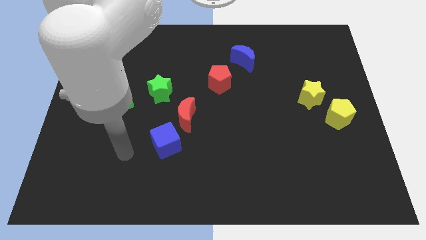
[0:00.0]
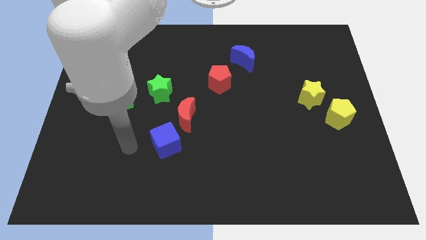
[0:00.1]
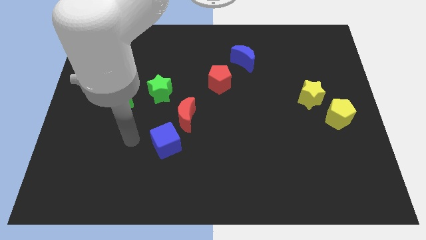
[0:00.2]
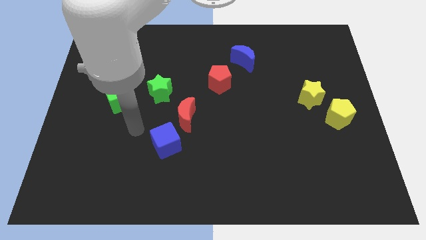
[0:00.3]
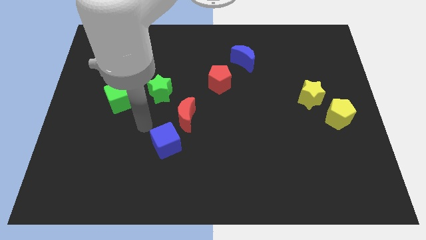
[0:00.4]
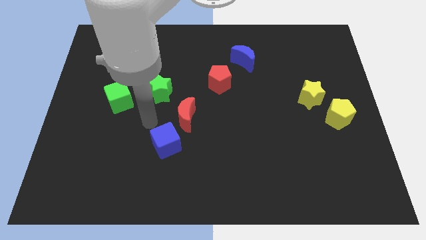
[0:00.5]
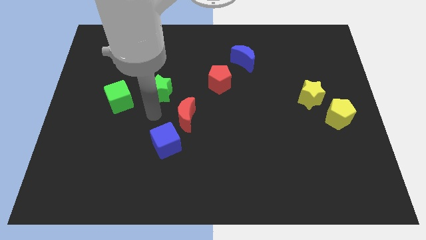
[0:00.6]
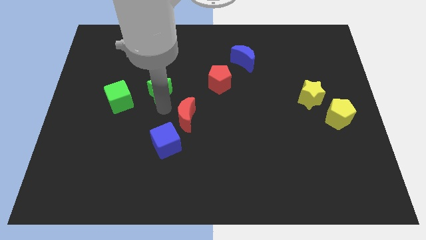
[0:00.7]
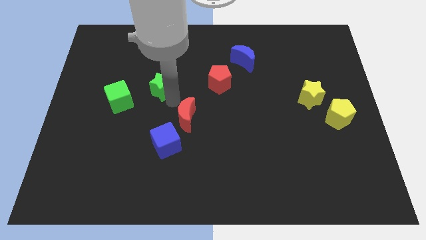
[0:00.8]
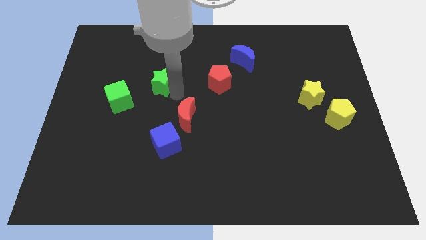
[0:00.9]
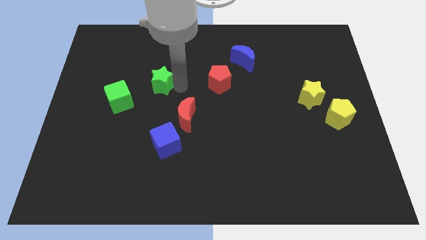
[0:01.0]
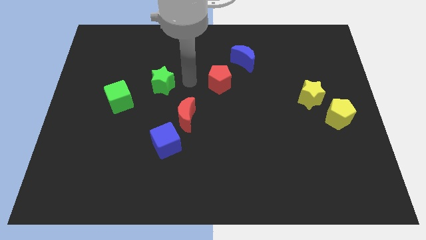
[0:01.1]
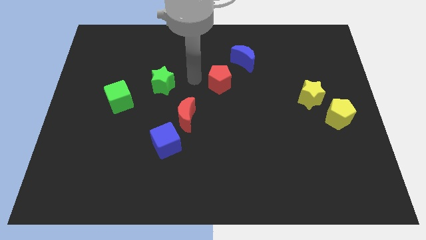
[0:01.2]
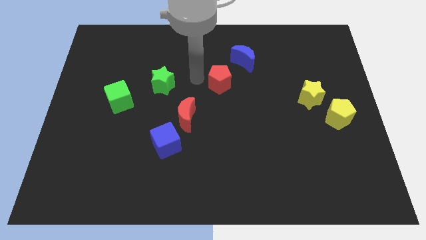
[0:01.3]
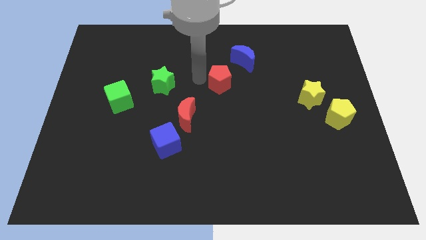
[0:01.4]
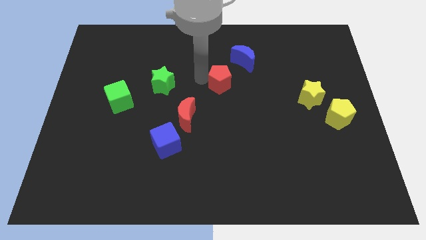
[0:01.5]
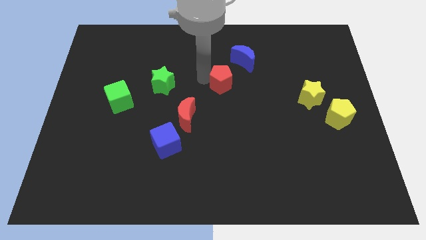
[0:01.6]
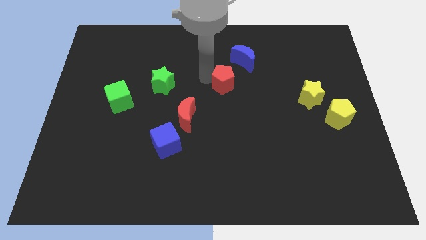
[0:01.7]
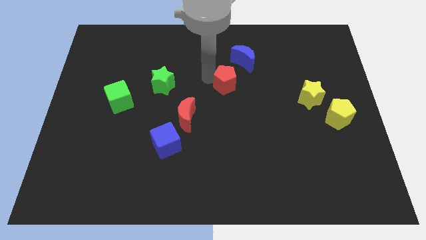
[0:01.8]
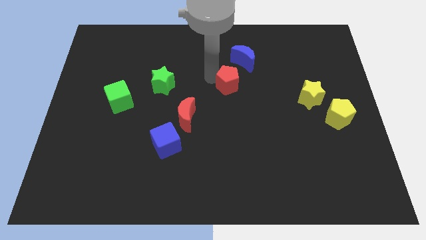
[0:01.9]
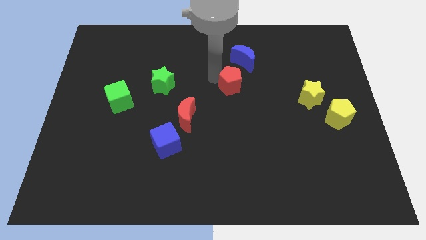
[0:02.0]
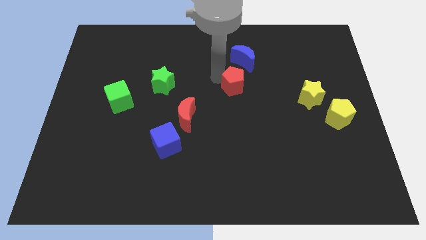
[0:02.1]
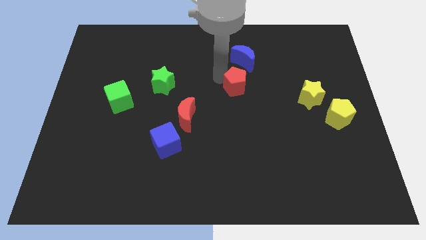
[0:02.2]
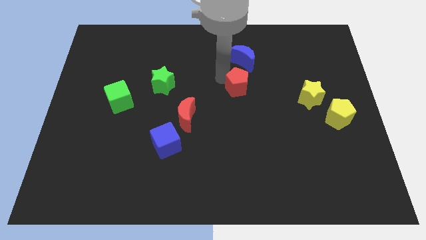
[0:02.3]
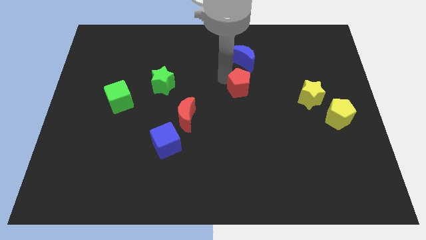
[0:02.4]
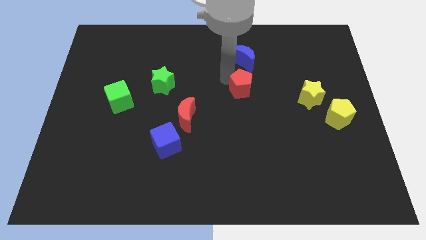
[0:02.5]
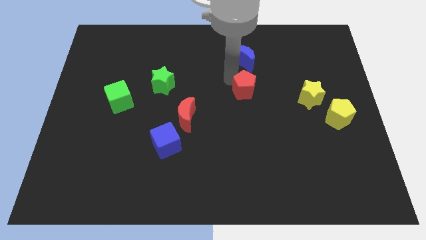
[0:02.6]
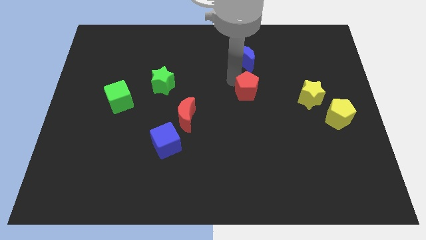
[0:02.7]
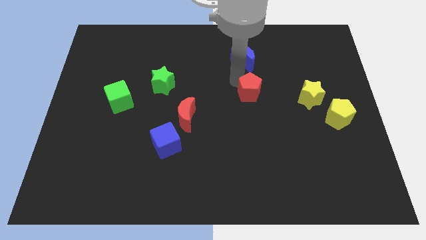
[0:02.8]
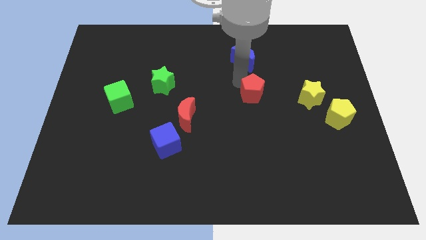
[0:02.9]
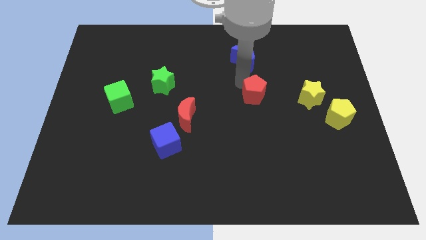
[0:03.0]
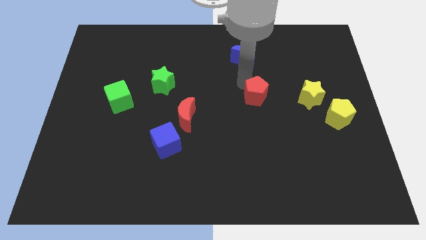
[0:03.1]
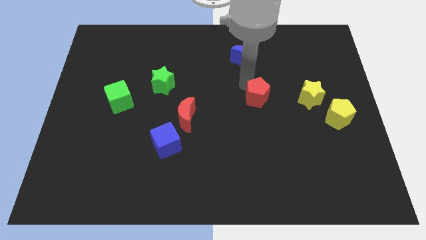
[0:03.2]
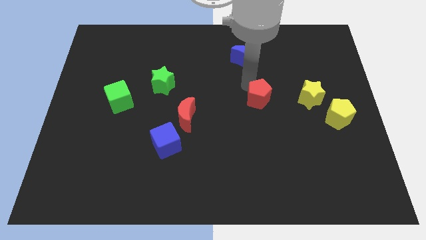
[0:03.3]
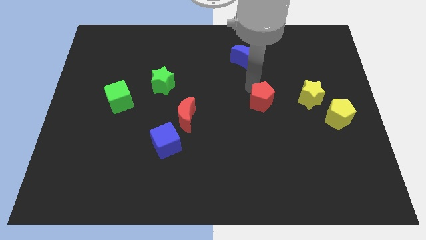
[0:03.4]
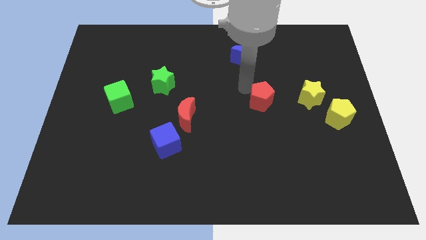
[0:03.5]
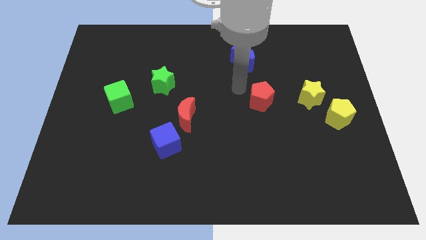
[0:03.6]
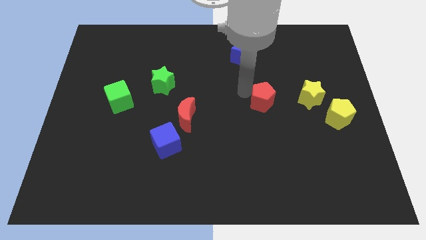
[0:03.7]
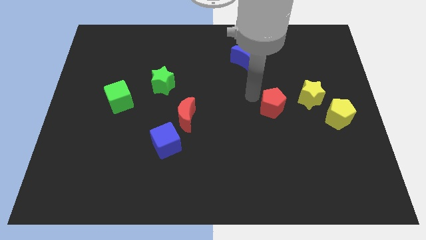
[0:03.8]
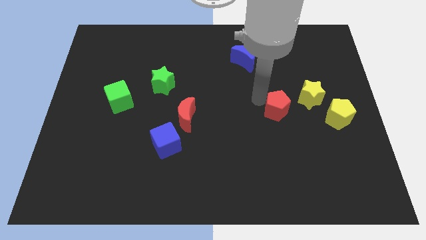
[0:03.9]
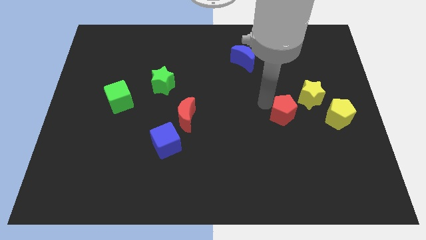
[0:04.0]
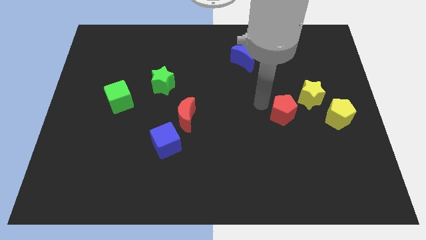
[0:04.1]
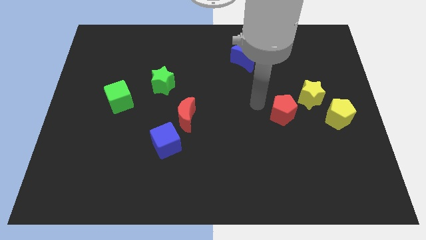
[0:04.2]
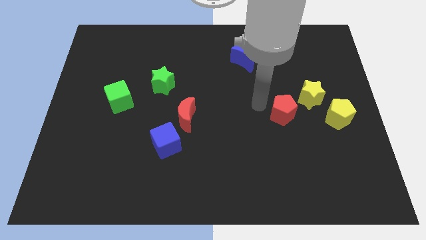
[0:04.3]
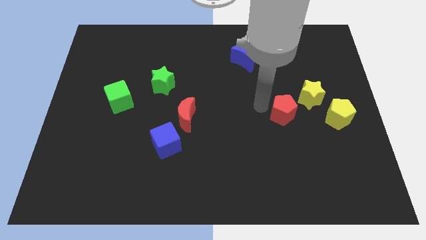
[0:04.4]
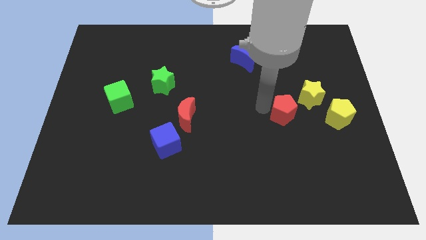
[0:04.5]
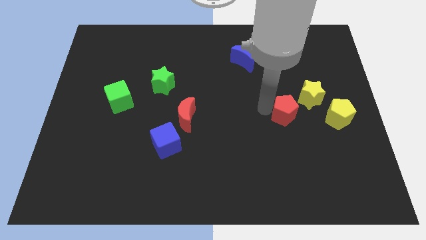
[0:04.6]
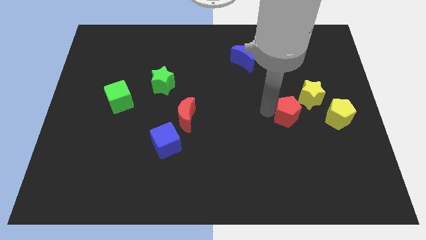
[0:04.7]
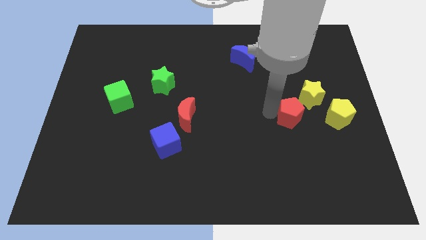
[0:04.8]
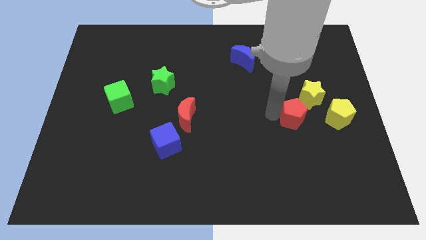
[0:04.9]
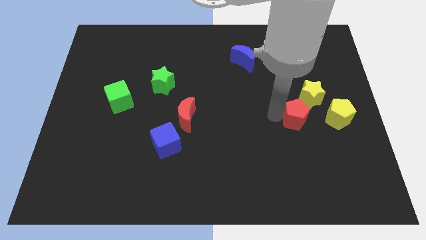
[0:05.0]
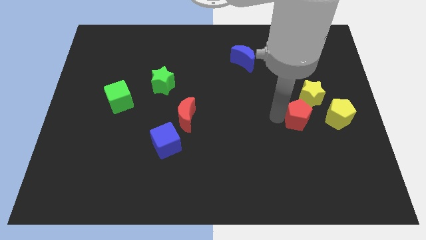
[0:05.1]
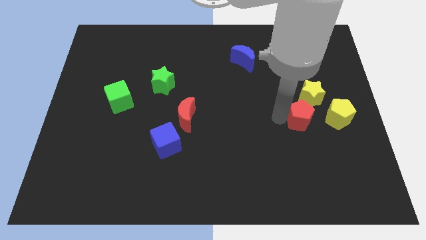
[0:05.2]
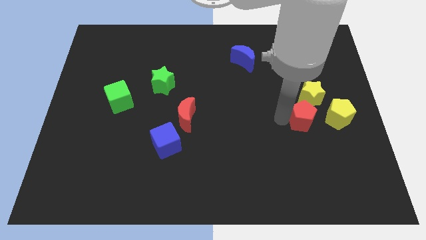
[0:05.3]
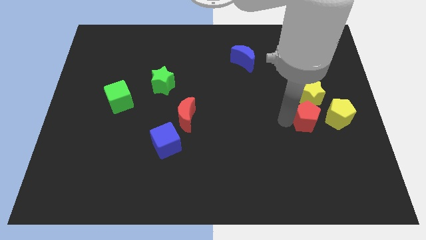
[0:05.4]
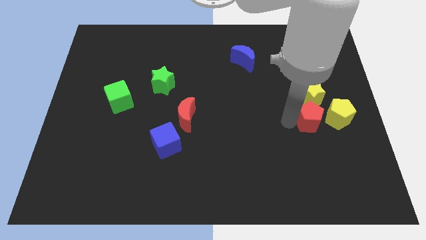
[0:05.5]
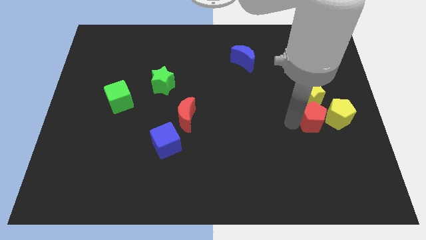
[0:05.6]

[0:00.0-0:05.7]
move the red pentagon to the yellow pentagon

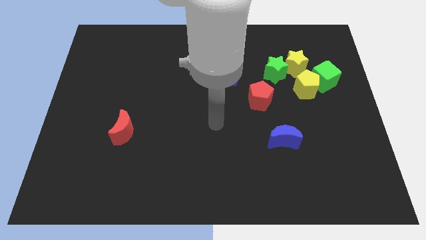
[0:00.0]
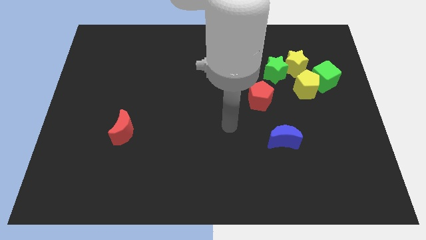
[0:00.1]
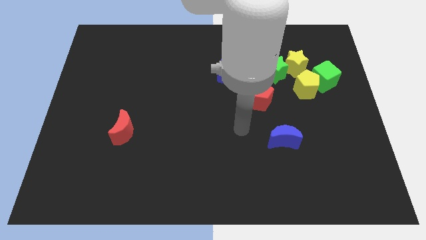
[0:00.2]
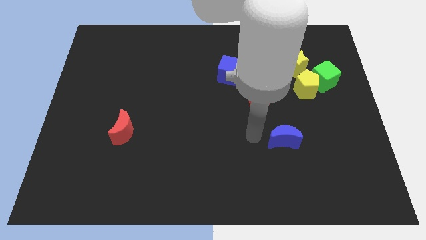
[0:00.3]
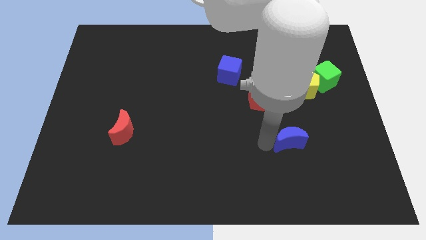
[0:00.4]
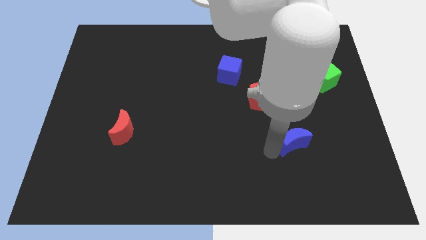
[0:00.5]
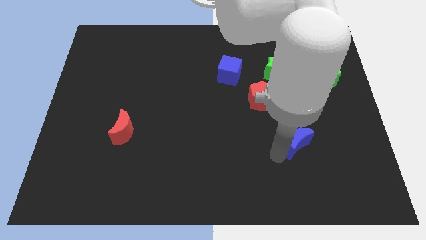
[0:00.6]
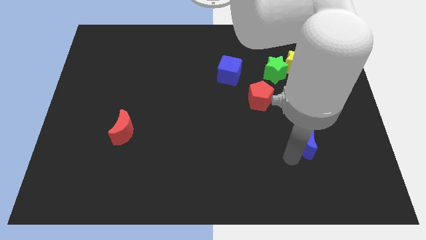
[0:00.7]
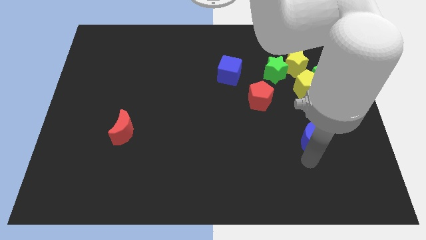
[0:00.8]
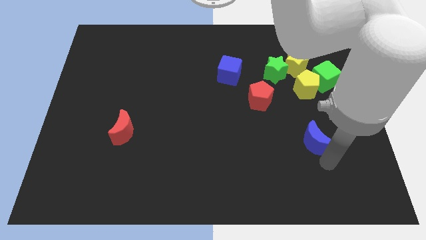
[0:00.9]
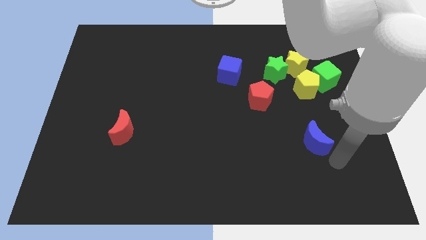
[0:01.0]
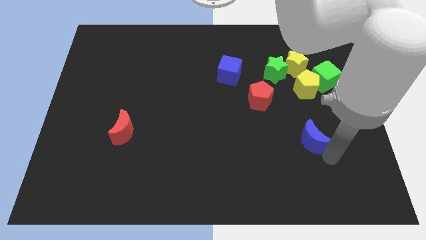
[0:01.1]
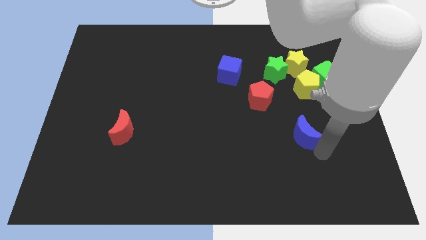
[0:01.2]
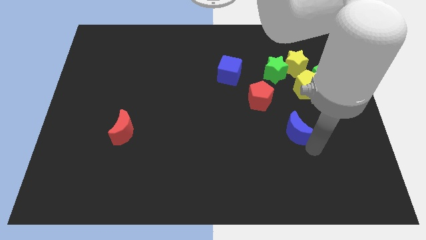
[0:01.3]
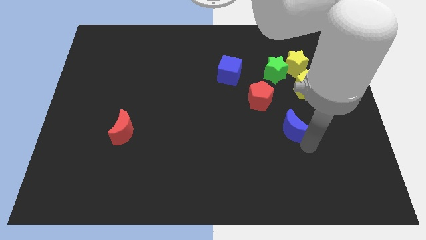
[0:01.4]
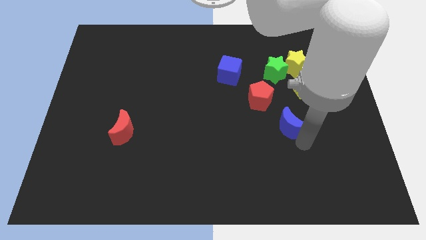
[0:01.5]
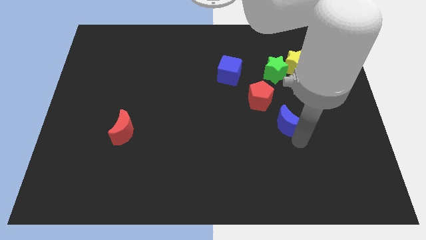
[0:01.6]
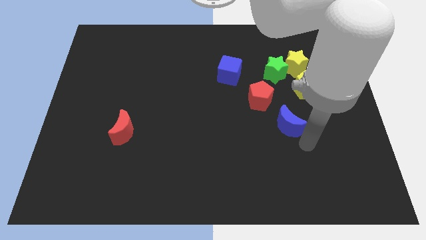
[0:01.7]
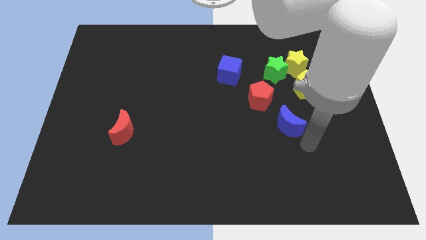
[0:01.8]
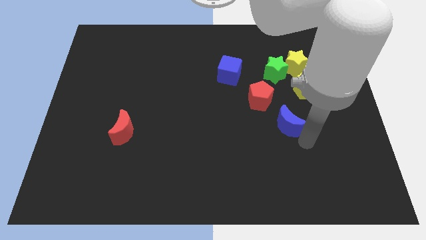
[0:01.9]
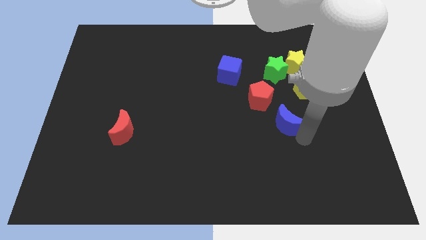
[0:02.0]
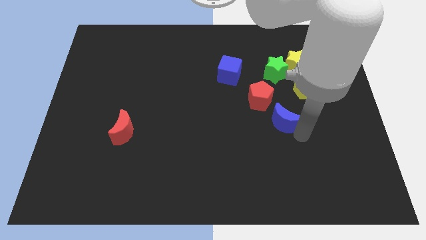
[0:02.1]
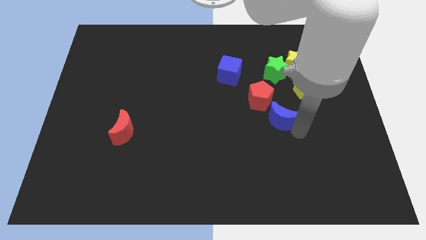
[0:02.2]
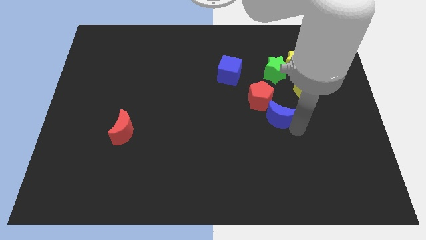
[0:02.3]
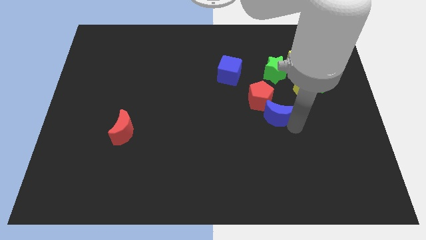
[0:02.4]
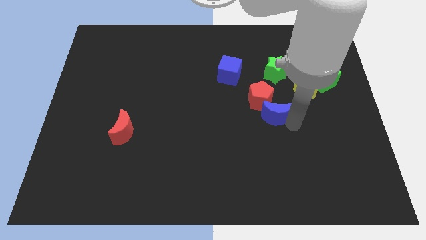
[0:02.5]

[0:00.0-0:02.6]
move the blue moon next to the red pentagon
